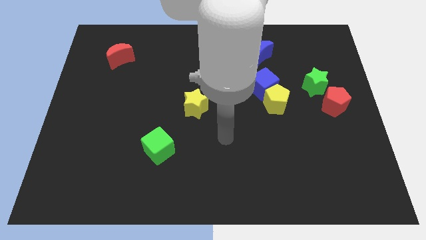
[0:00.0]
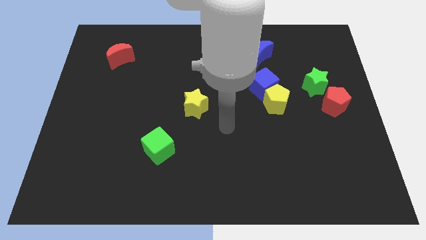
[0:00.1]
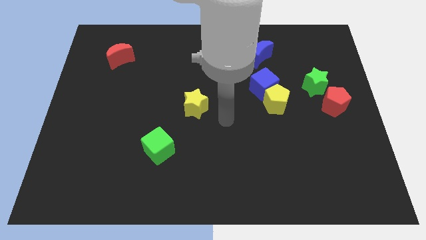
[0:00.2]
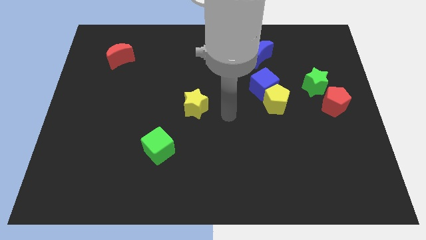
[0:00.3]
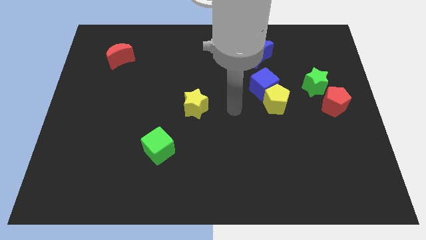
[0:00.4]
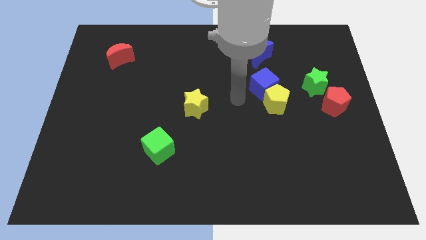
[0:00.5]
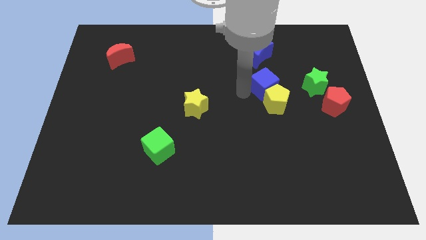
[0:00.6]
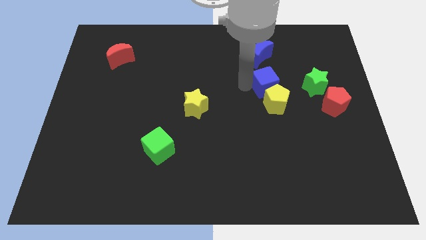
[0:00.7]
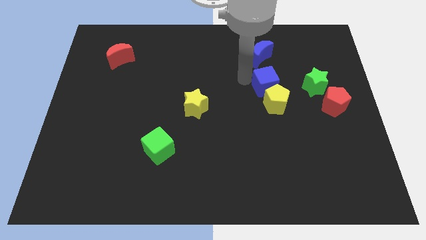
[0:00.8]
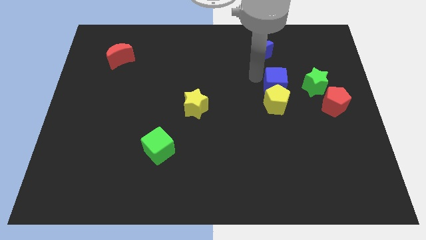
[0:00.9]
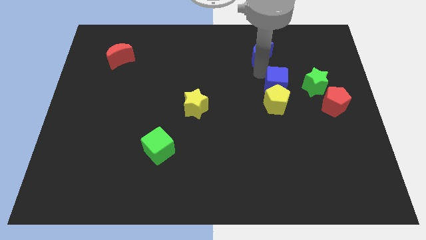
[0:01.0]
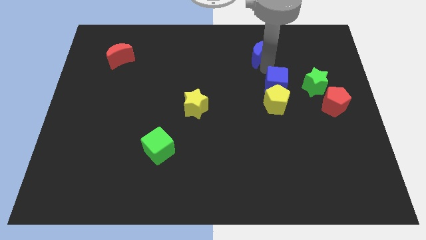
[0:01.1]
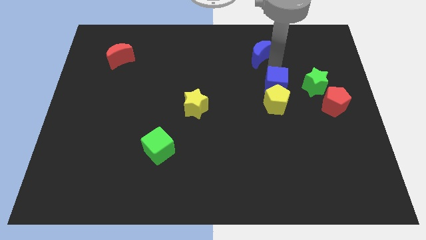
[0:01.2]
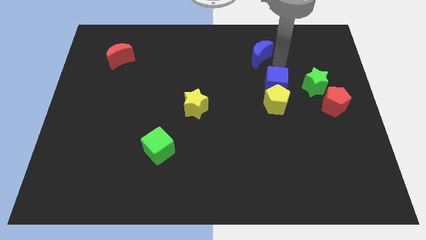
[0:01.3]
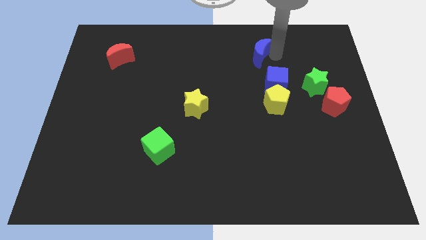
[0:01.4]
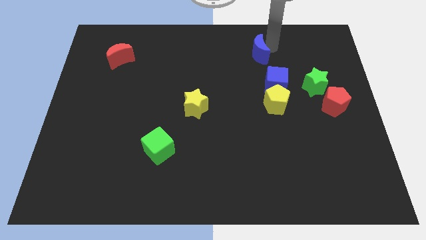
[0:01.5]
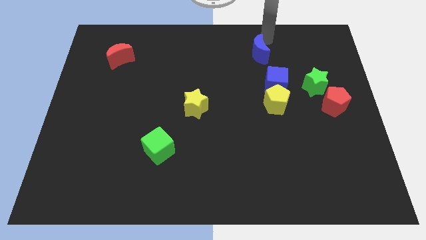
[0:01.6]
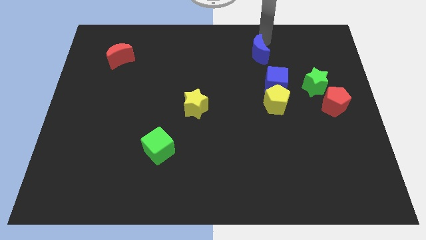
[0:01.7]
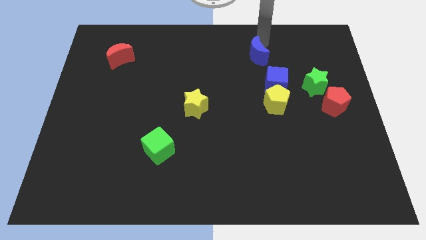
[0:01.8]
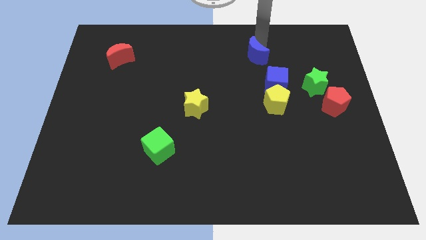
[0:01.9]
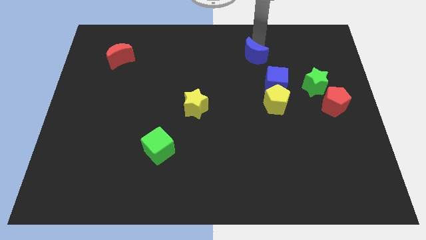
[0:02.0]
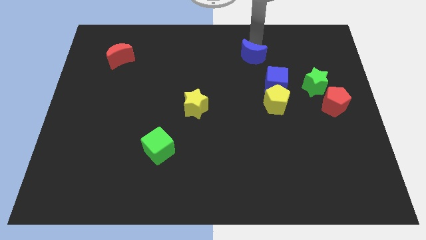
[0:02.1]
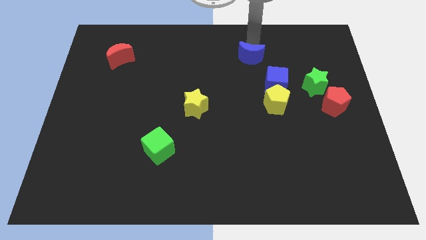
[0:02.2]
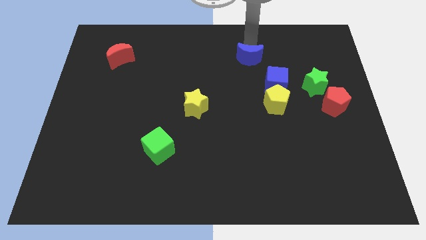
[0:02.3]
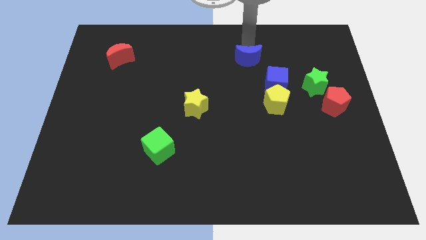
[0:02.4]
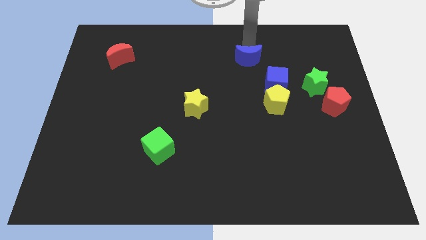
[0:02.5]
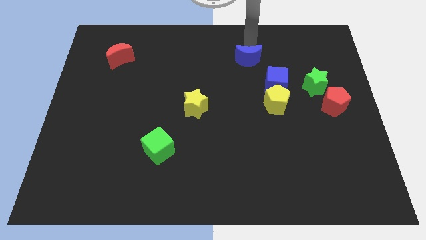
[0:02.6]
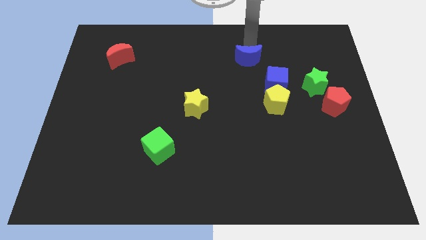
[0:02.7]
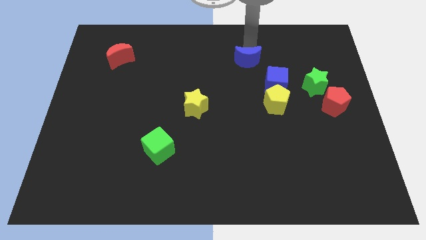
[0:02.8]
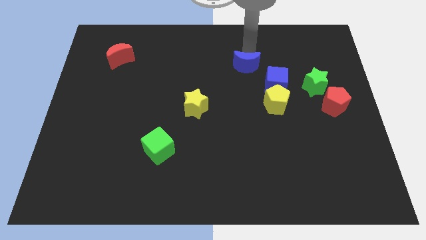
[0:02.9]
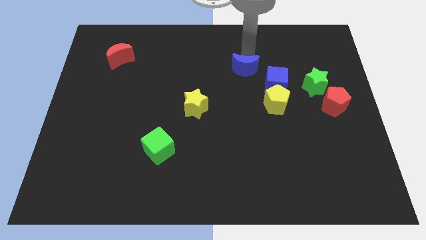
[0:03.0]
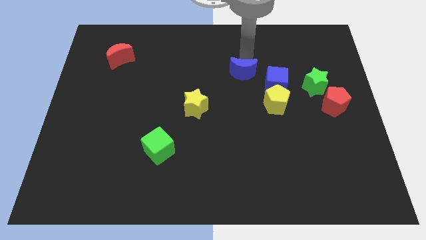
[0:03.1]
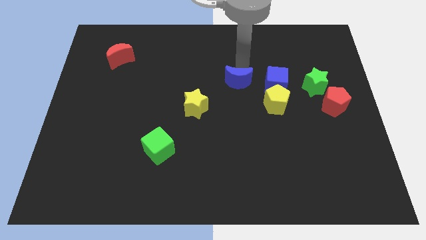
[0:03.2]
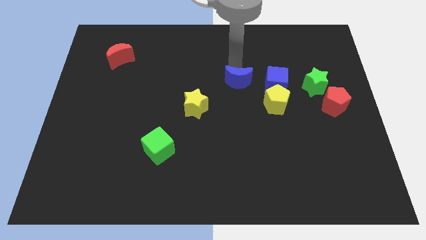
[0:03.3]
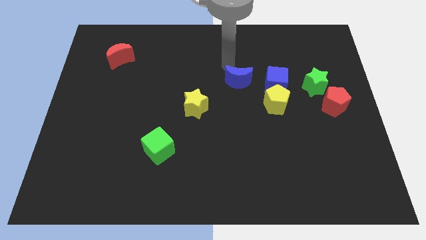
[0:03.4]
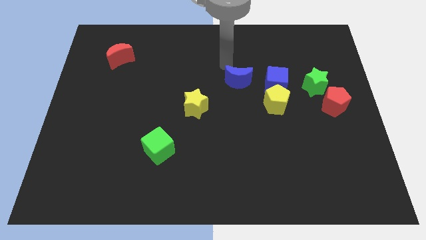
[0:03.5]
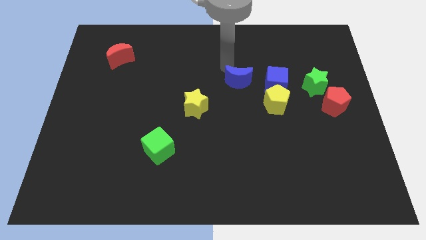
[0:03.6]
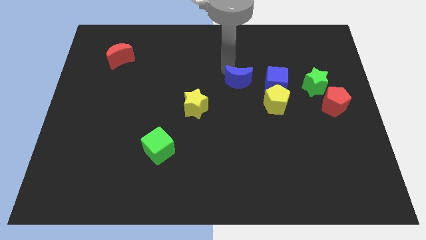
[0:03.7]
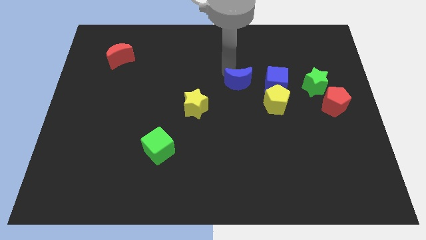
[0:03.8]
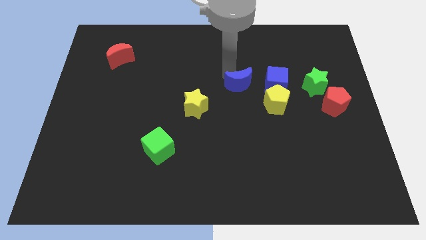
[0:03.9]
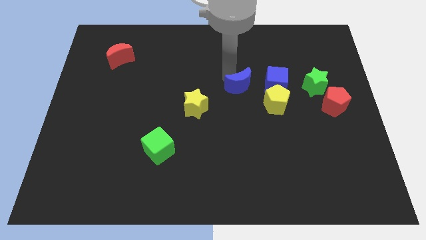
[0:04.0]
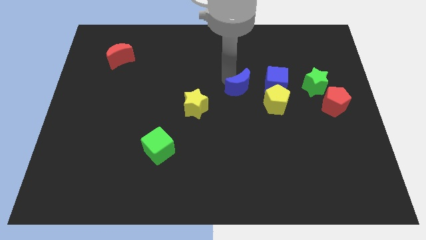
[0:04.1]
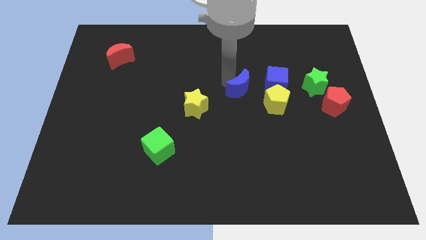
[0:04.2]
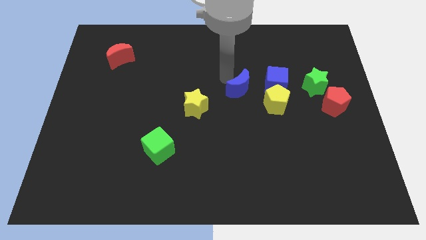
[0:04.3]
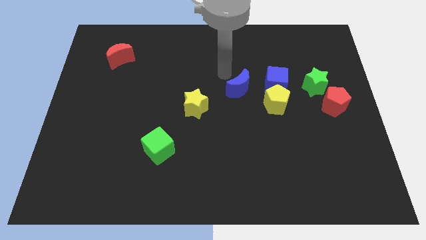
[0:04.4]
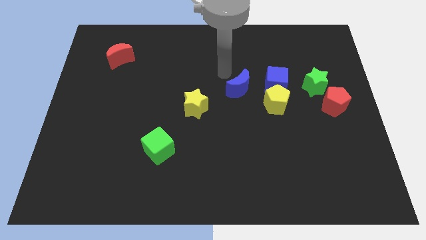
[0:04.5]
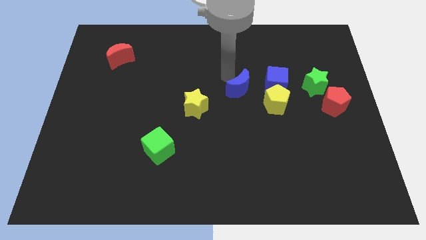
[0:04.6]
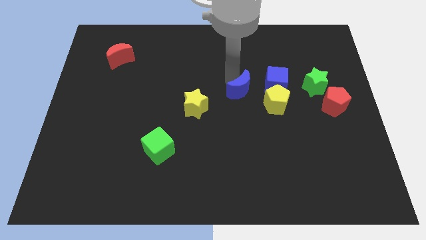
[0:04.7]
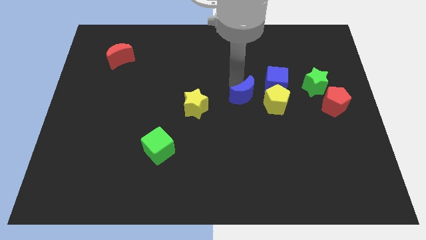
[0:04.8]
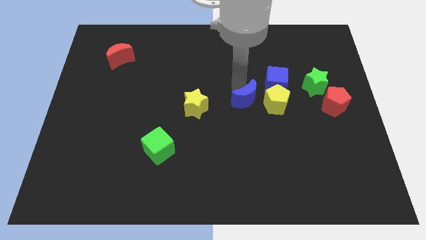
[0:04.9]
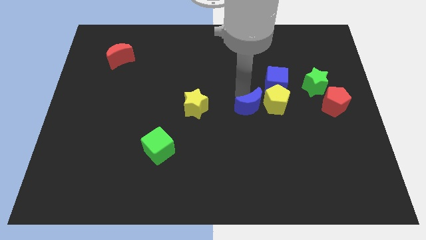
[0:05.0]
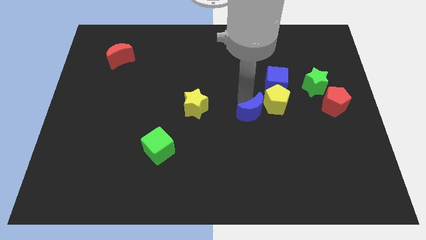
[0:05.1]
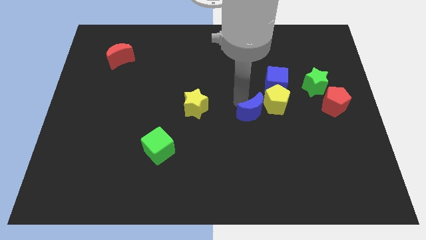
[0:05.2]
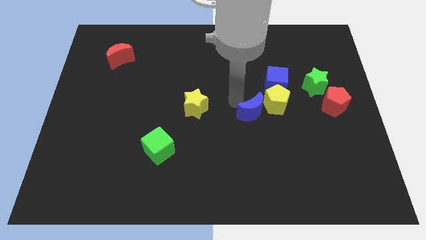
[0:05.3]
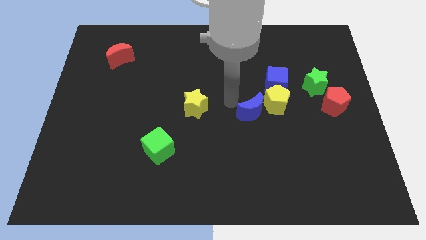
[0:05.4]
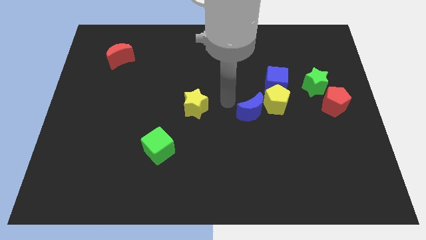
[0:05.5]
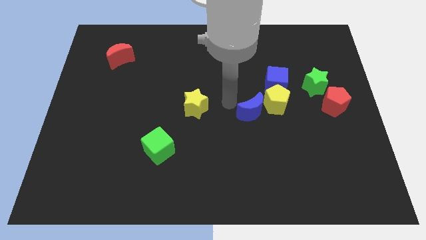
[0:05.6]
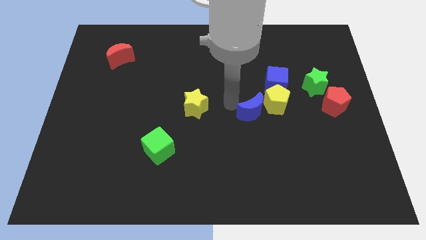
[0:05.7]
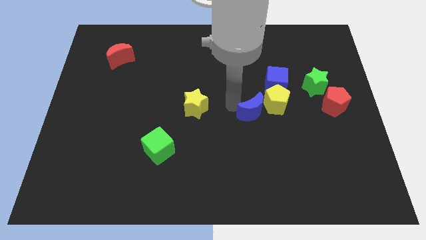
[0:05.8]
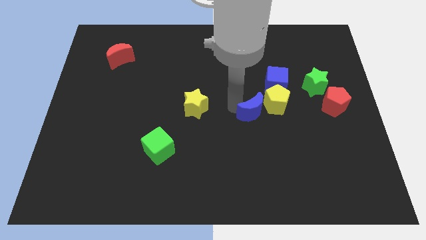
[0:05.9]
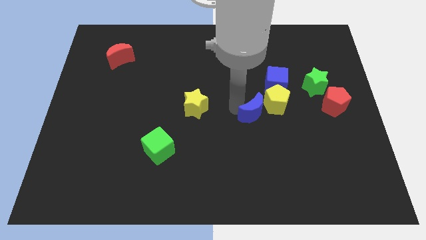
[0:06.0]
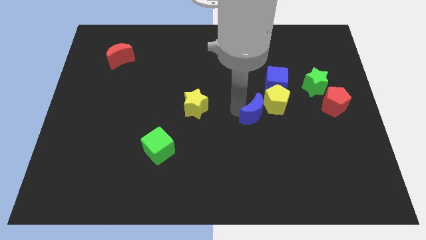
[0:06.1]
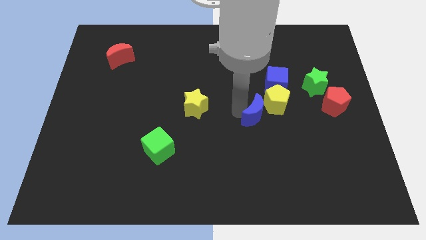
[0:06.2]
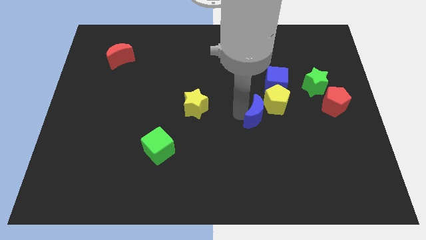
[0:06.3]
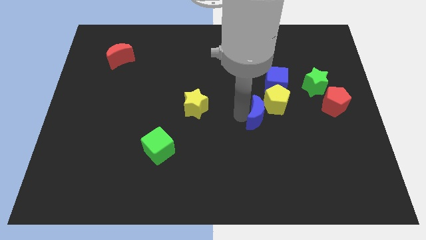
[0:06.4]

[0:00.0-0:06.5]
push the blue moon down

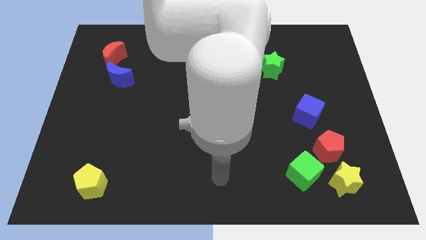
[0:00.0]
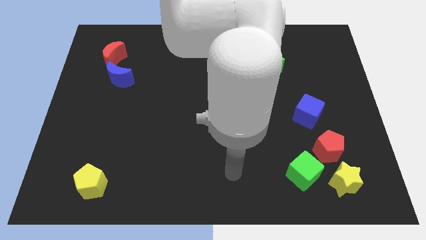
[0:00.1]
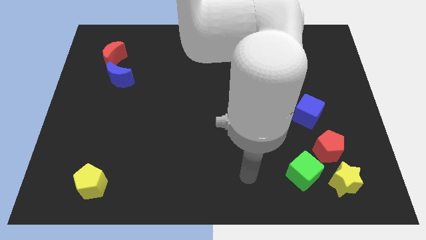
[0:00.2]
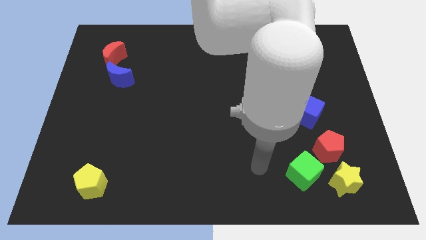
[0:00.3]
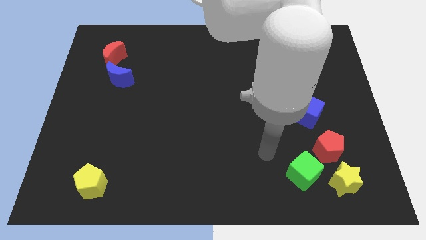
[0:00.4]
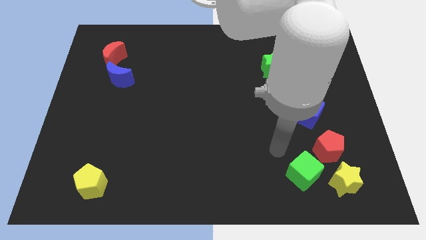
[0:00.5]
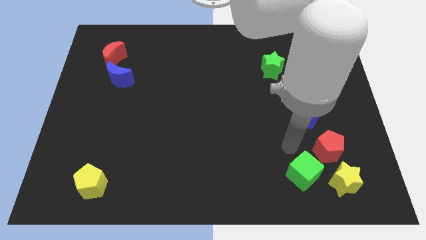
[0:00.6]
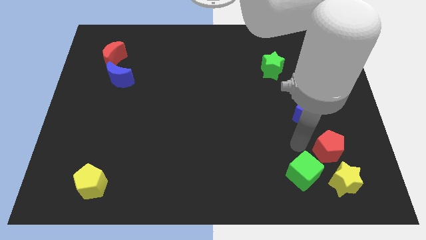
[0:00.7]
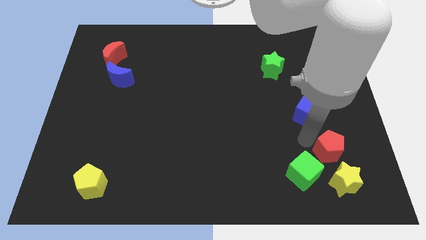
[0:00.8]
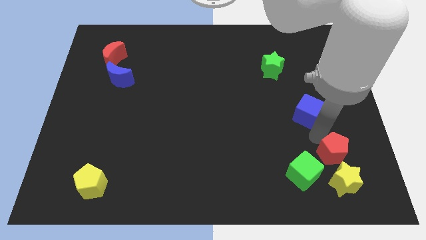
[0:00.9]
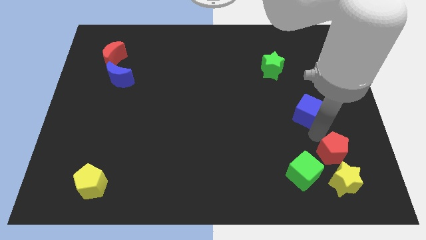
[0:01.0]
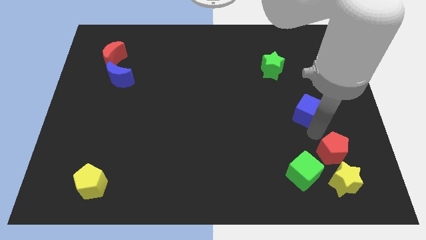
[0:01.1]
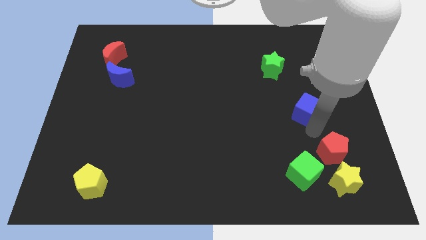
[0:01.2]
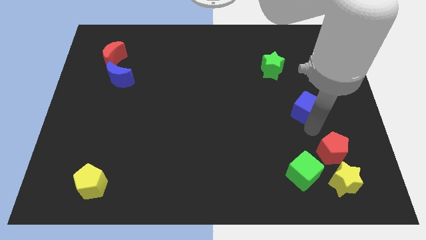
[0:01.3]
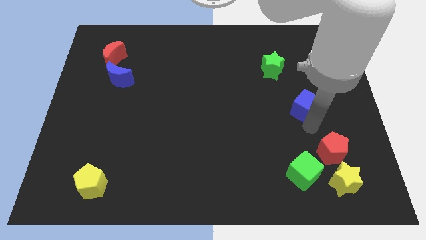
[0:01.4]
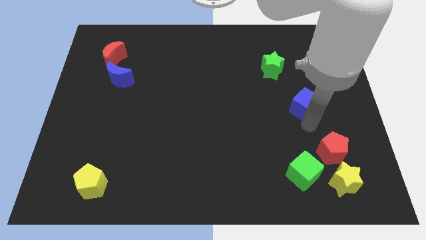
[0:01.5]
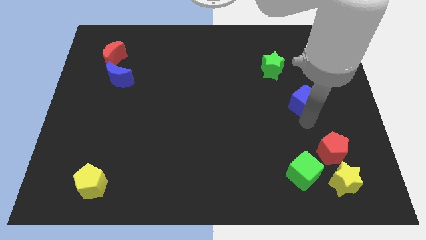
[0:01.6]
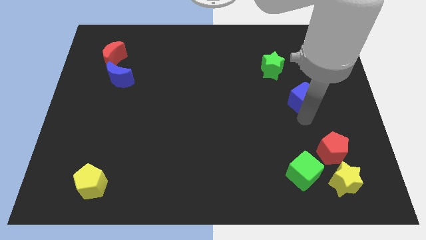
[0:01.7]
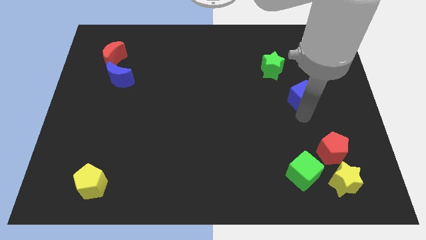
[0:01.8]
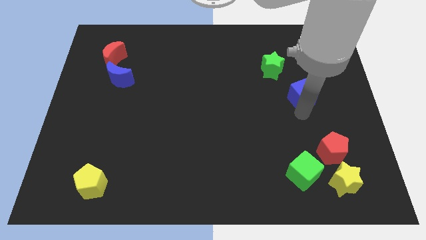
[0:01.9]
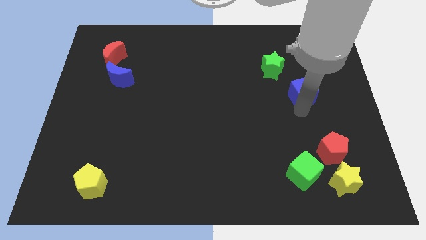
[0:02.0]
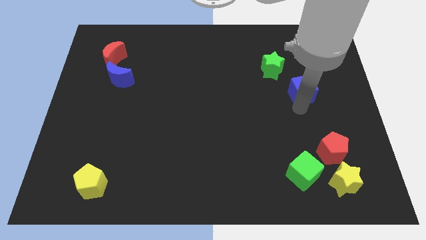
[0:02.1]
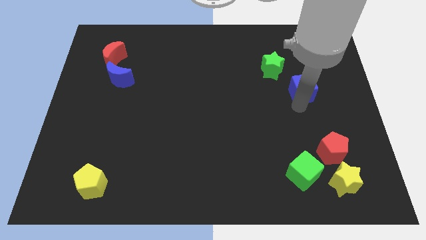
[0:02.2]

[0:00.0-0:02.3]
move the blue cube slightly up
